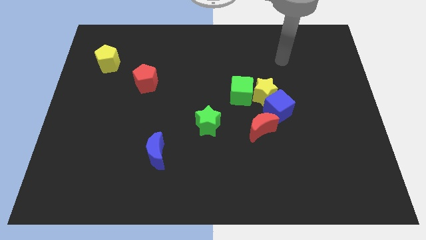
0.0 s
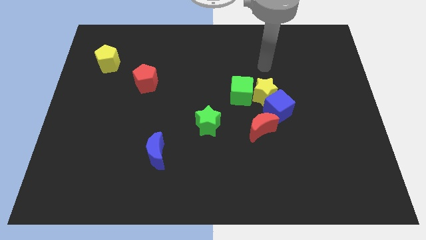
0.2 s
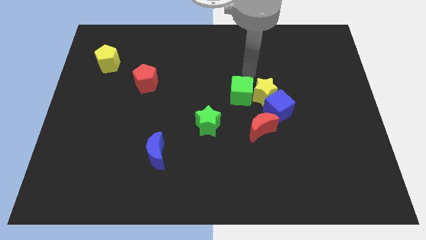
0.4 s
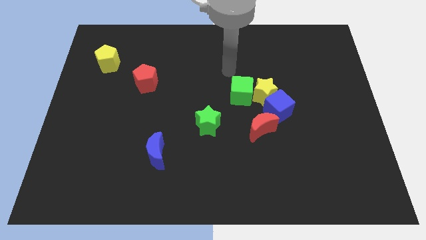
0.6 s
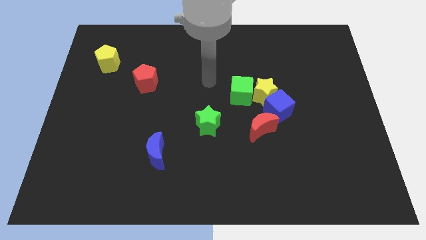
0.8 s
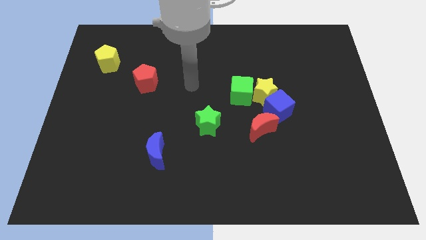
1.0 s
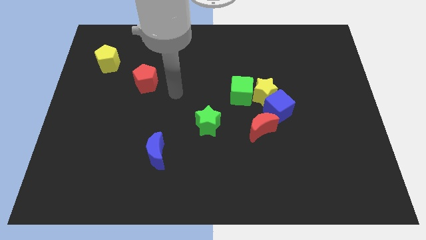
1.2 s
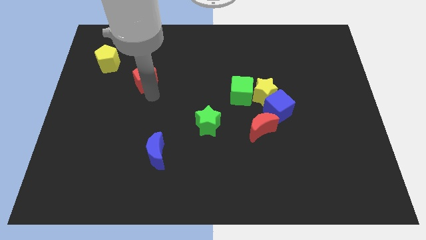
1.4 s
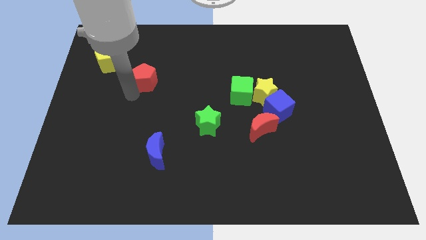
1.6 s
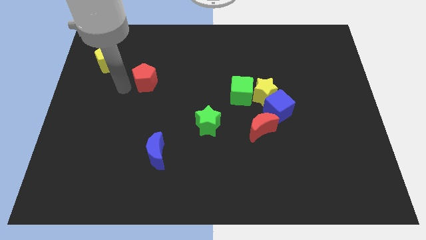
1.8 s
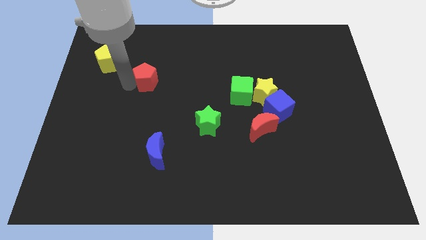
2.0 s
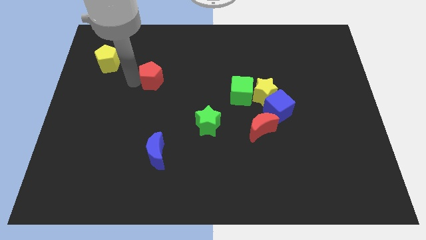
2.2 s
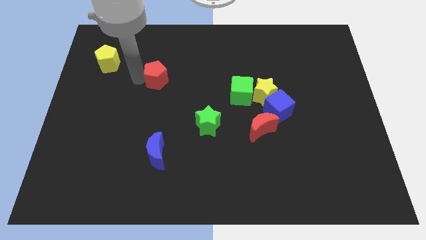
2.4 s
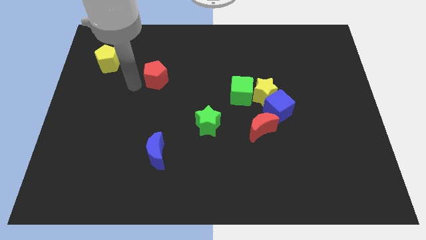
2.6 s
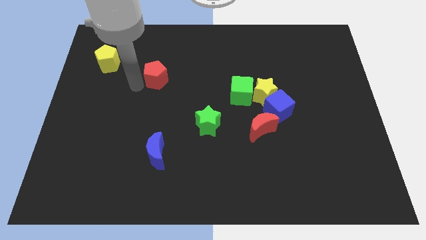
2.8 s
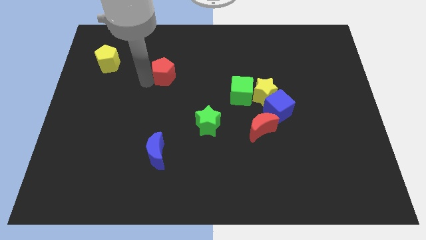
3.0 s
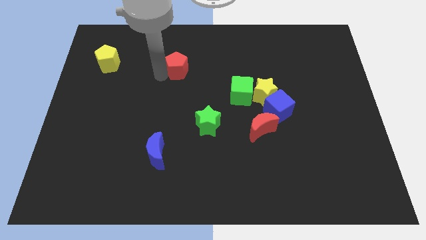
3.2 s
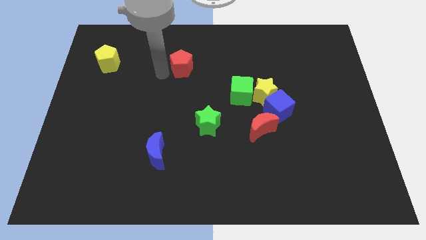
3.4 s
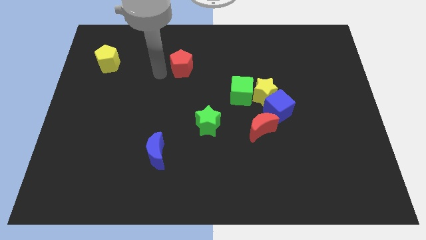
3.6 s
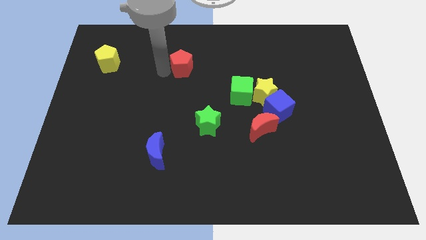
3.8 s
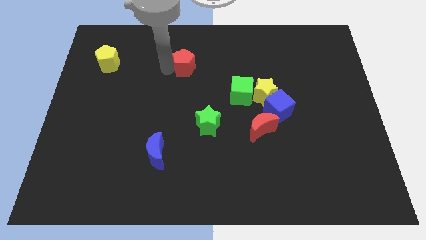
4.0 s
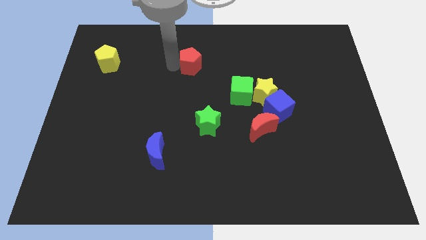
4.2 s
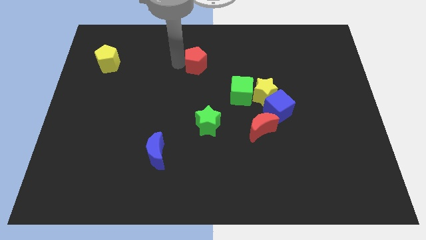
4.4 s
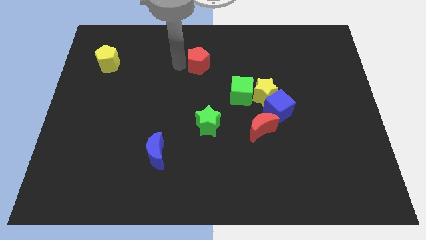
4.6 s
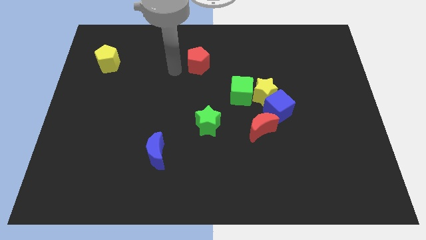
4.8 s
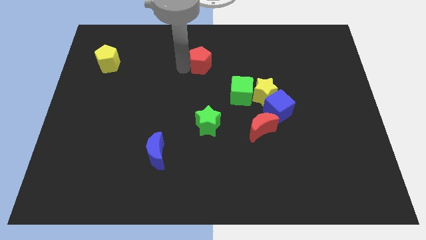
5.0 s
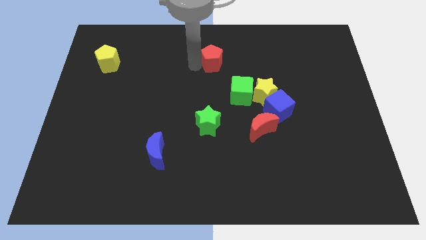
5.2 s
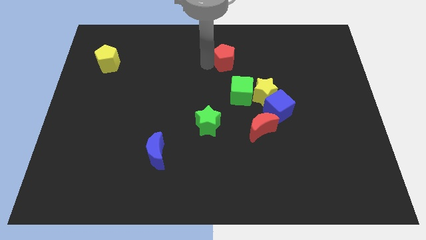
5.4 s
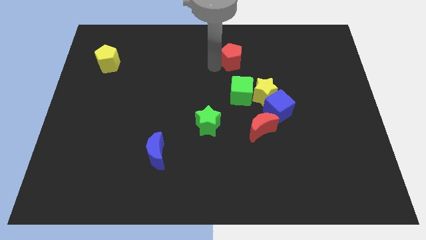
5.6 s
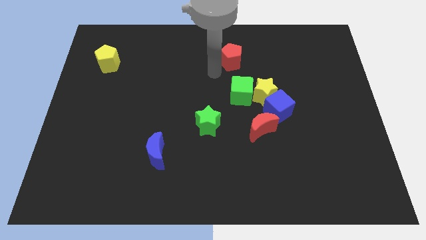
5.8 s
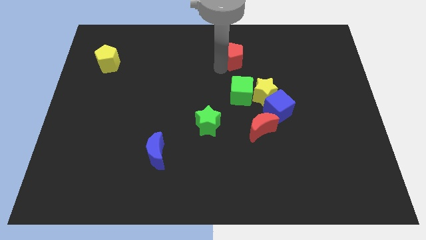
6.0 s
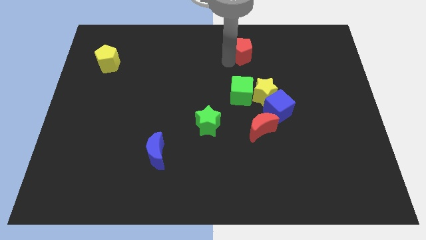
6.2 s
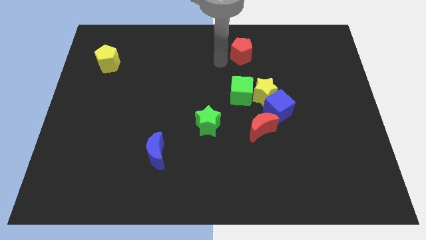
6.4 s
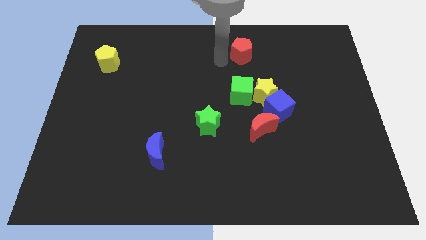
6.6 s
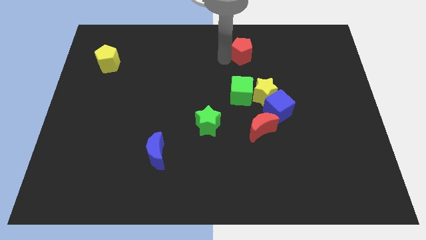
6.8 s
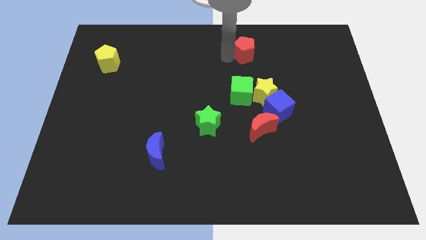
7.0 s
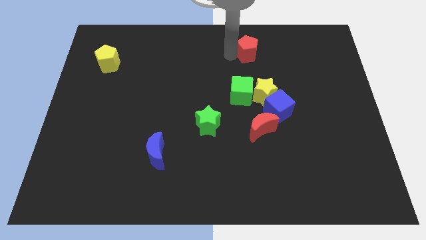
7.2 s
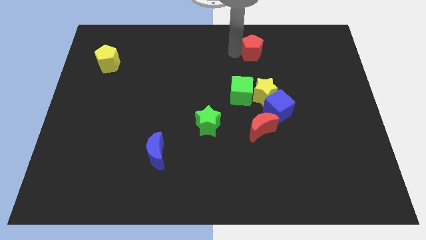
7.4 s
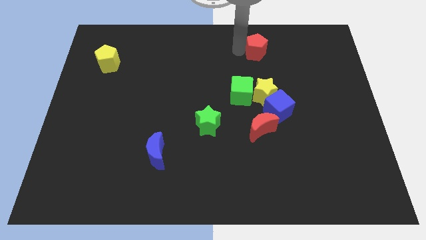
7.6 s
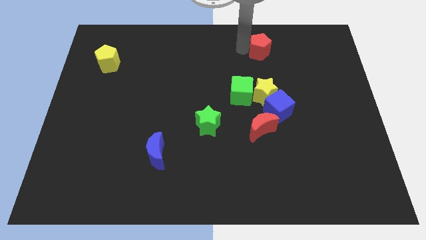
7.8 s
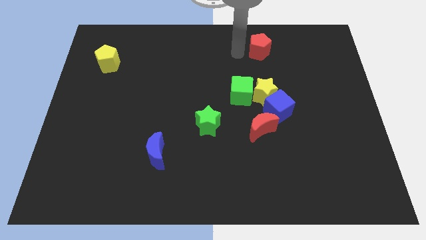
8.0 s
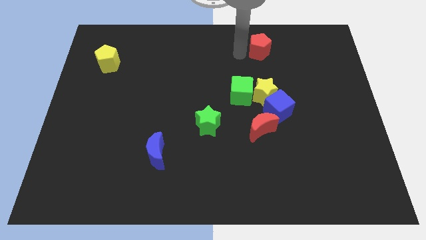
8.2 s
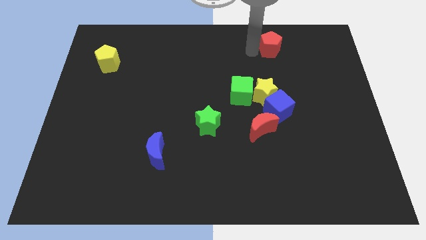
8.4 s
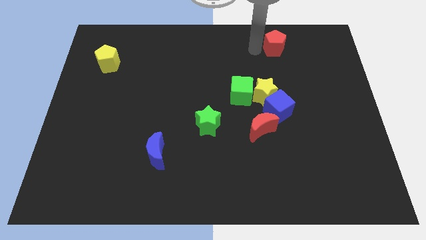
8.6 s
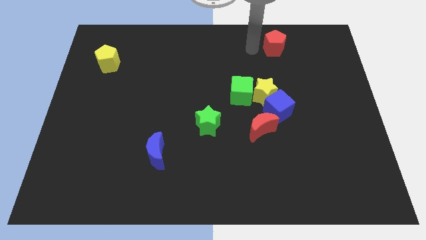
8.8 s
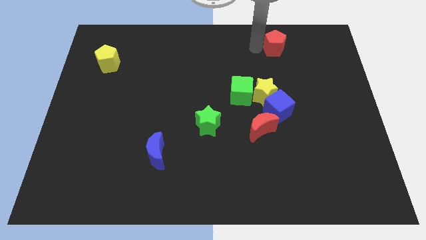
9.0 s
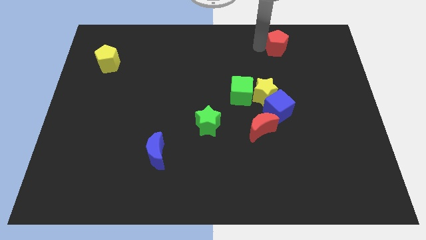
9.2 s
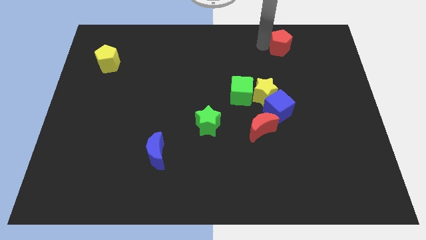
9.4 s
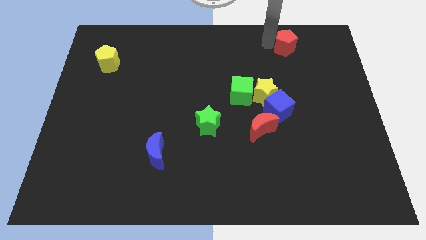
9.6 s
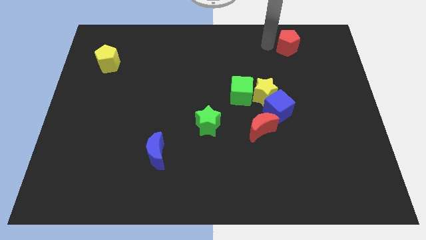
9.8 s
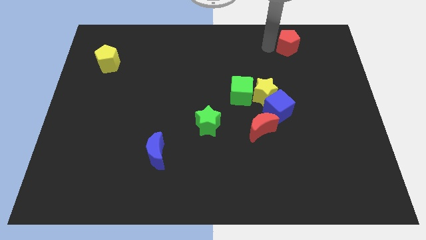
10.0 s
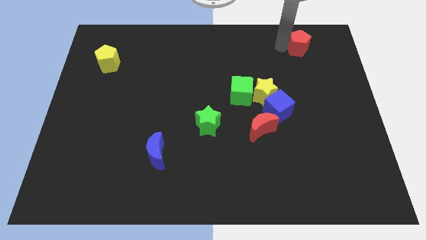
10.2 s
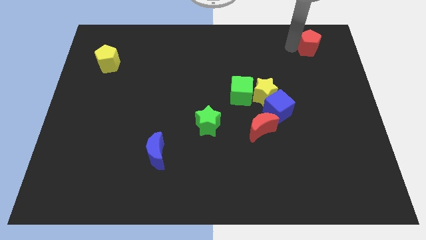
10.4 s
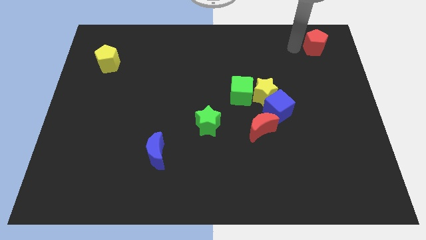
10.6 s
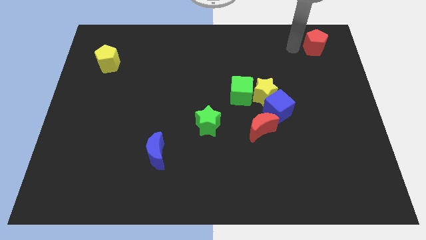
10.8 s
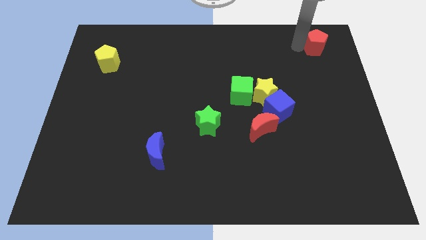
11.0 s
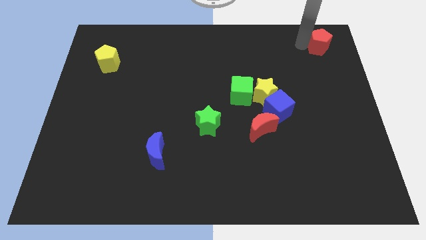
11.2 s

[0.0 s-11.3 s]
slide the red pentagon to the upper right corner

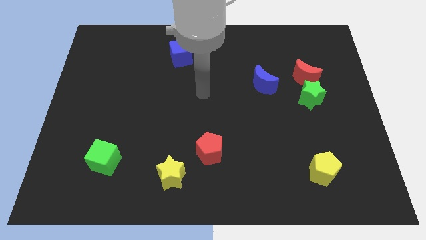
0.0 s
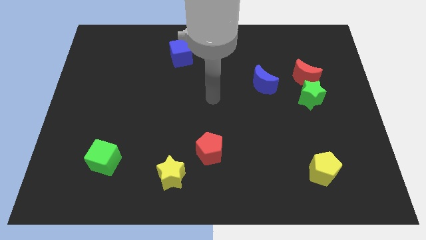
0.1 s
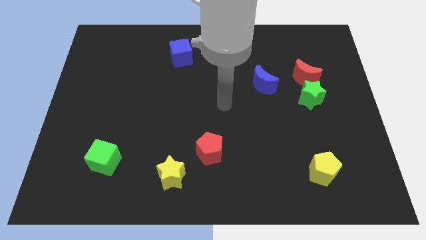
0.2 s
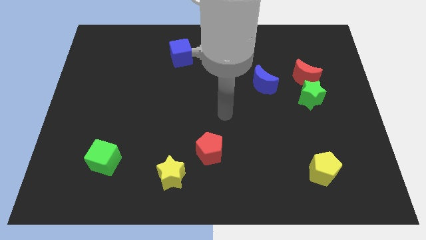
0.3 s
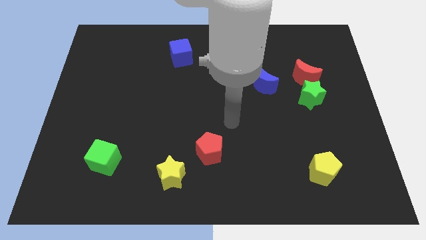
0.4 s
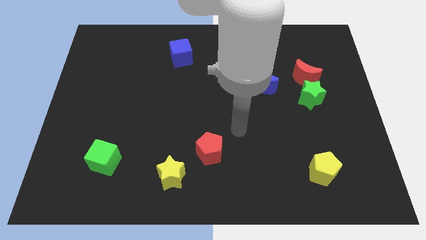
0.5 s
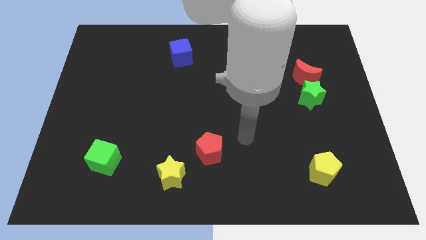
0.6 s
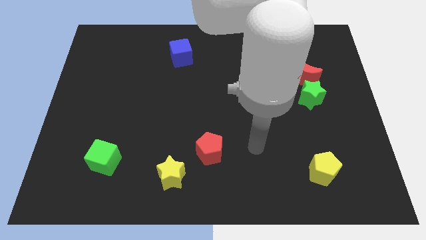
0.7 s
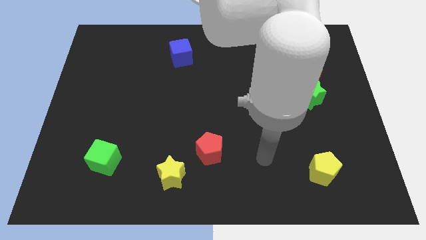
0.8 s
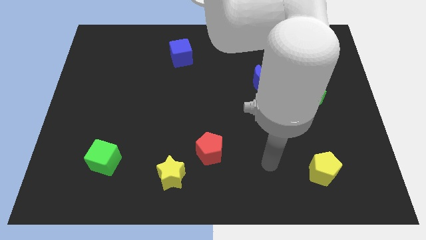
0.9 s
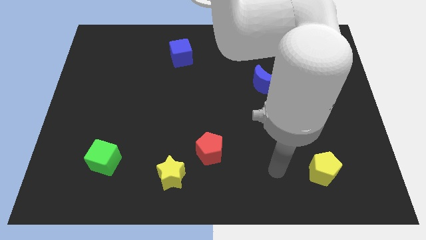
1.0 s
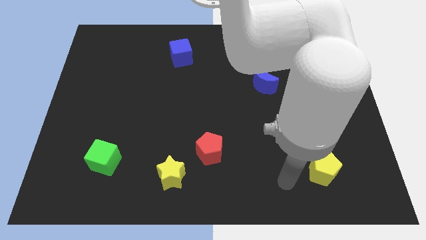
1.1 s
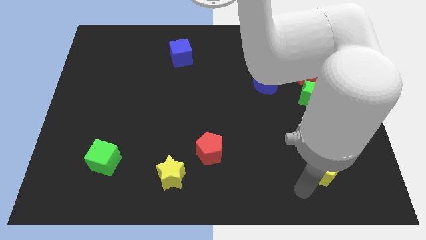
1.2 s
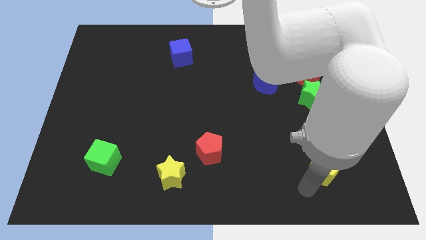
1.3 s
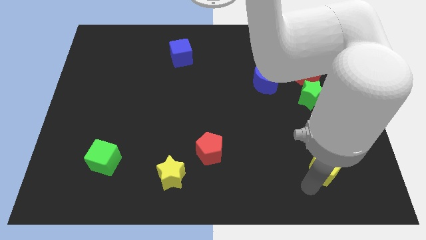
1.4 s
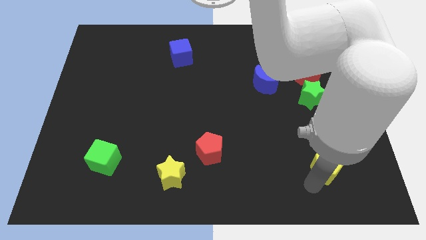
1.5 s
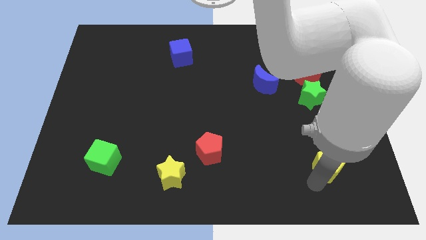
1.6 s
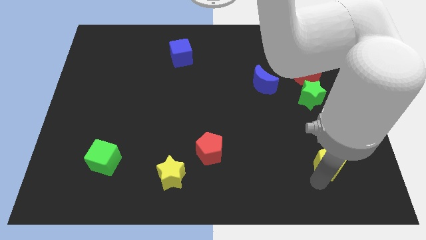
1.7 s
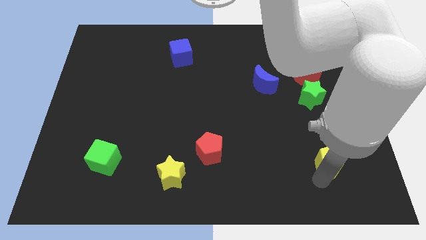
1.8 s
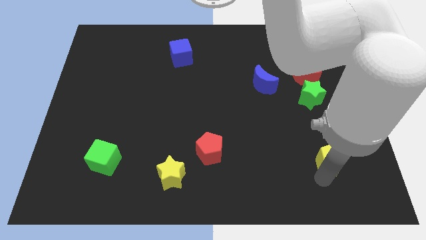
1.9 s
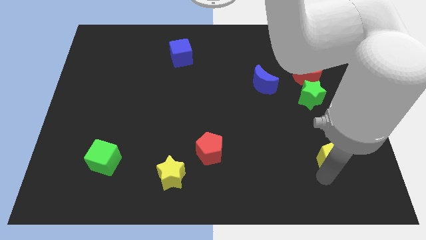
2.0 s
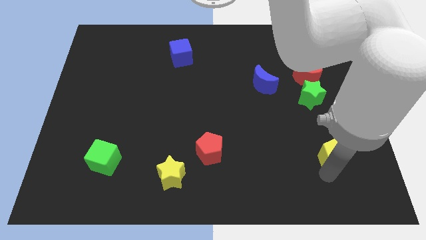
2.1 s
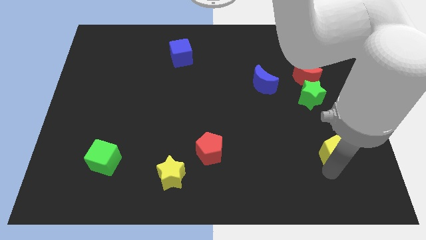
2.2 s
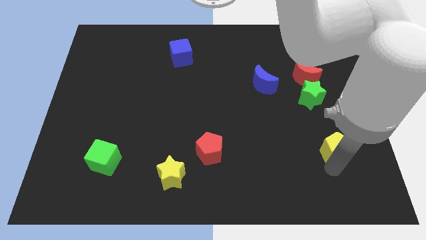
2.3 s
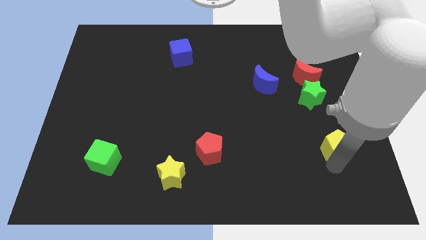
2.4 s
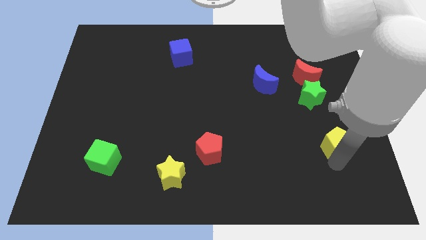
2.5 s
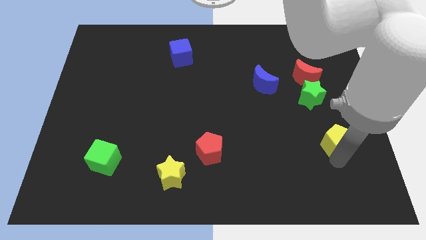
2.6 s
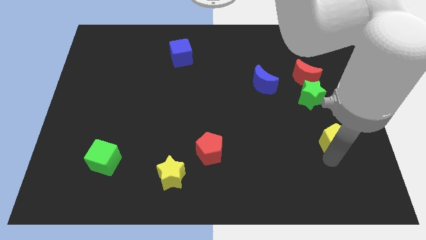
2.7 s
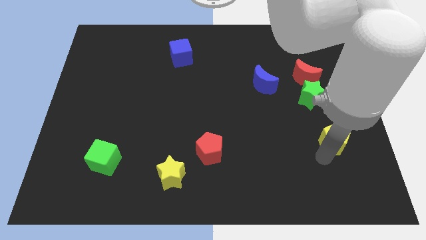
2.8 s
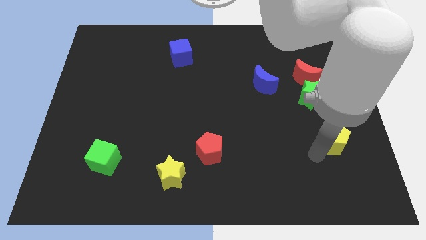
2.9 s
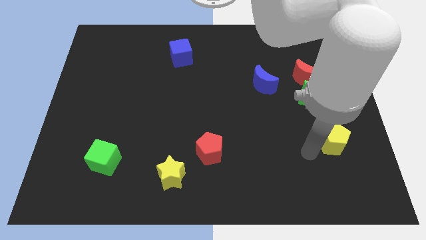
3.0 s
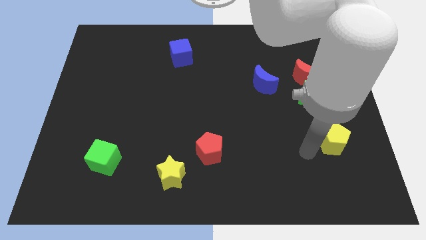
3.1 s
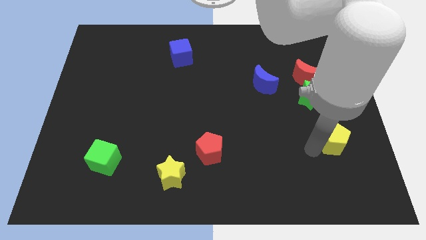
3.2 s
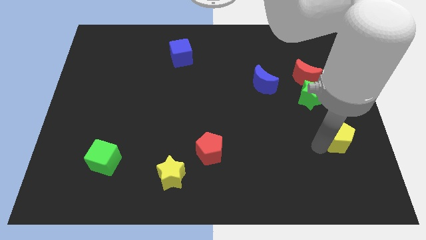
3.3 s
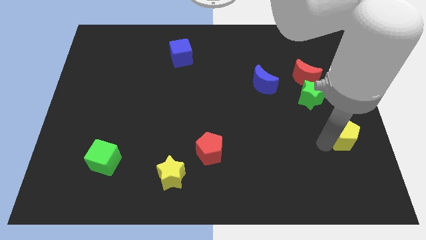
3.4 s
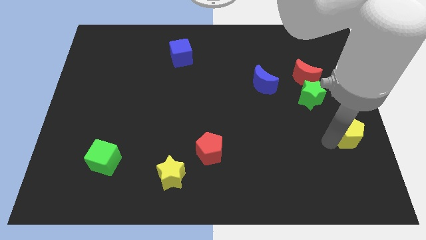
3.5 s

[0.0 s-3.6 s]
move the yellow pentagon to the center right
